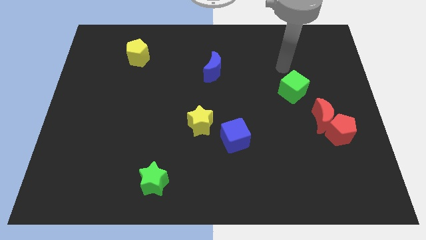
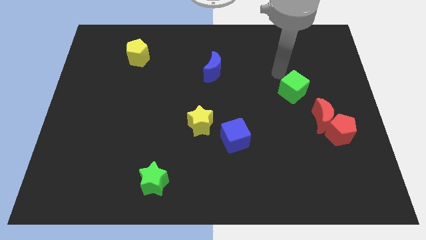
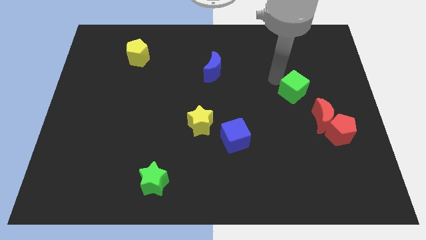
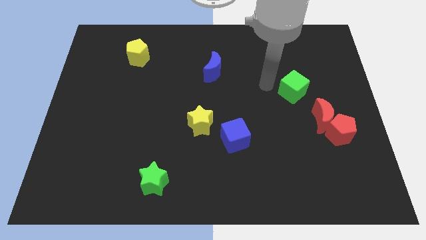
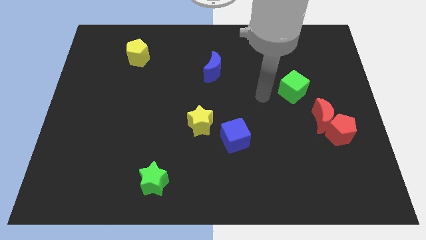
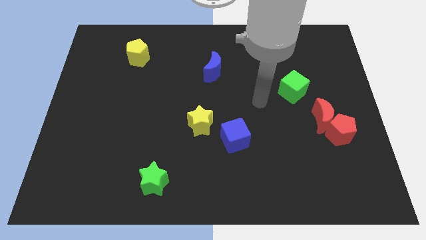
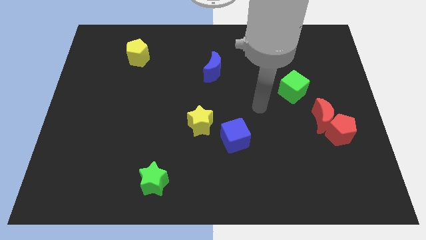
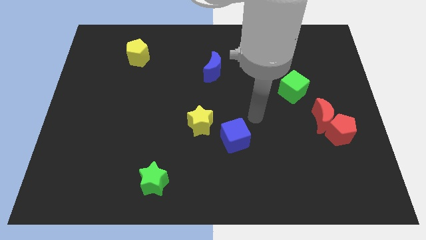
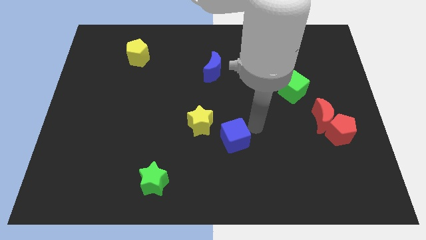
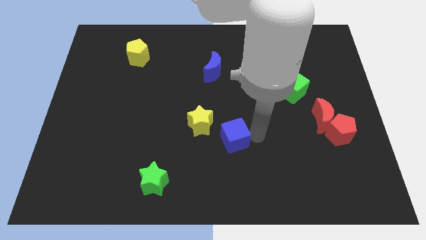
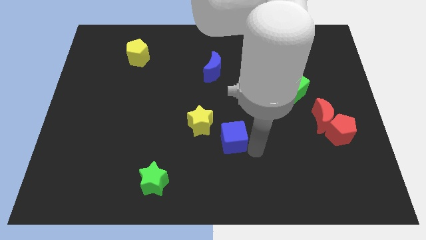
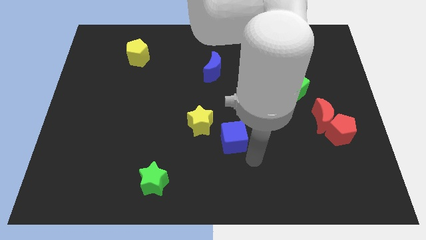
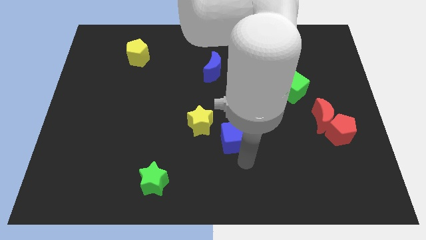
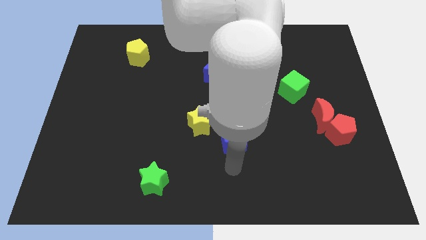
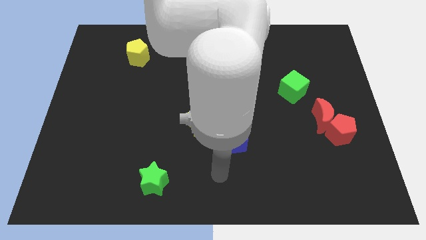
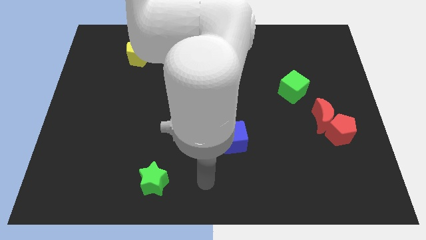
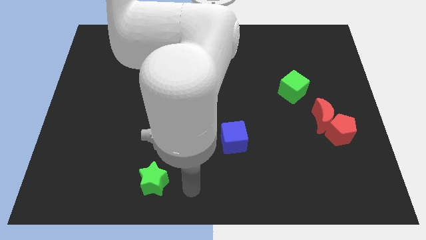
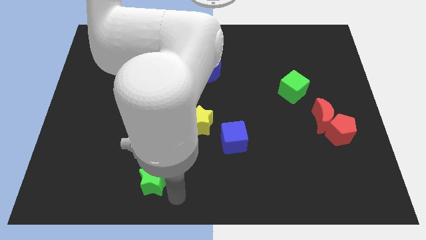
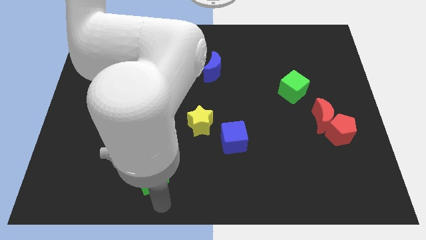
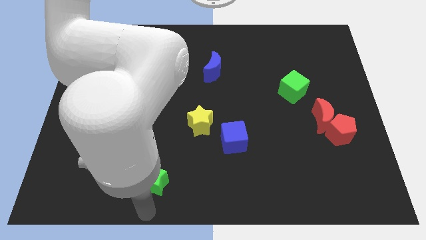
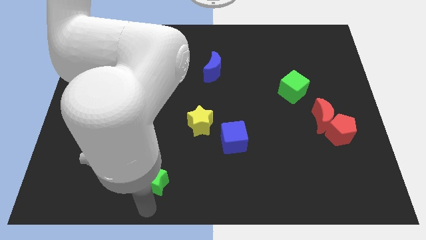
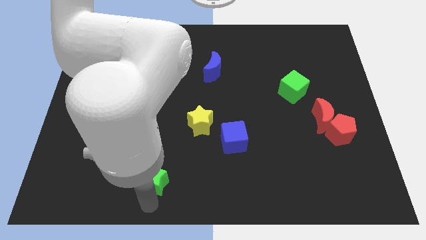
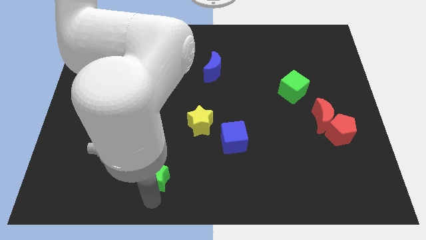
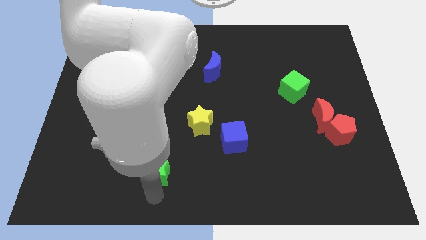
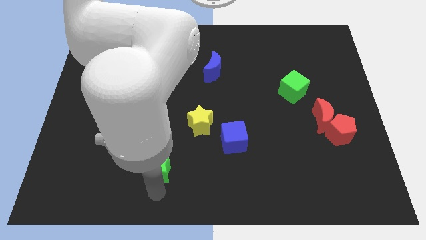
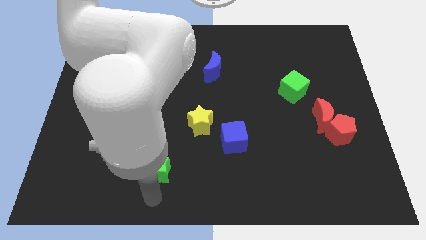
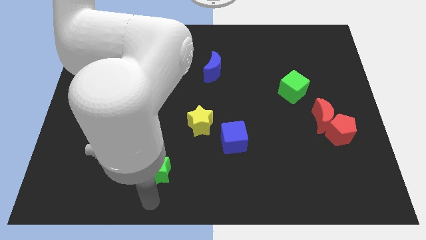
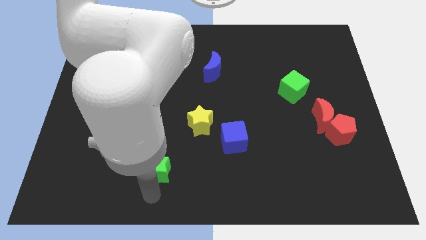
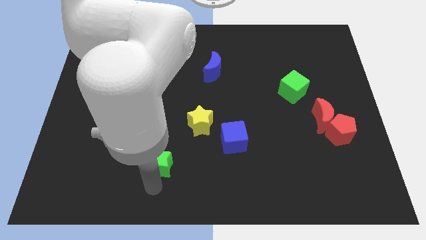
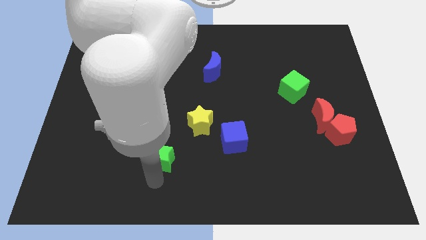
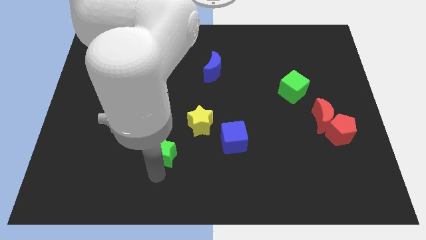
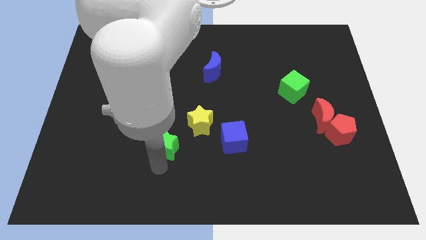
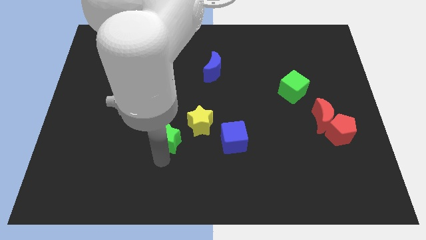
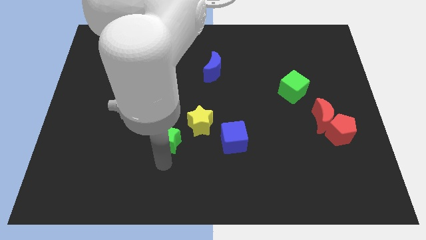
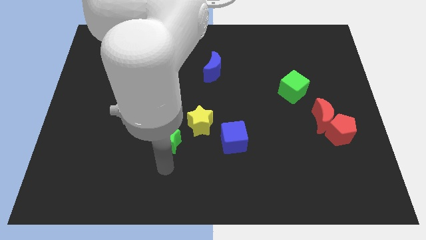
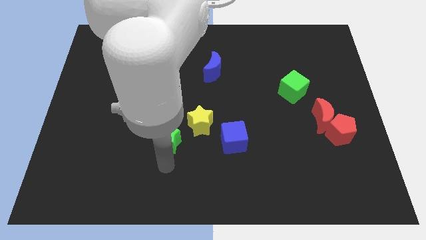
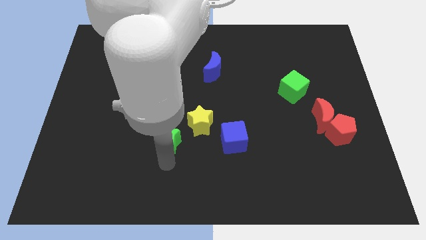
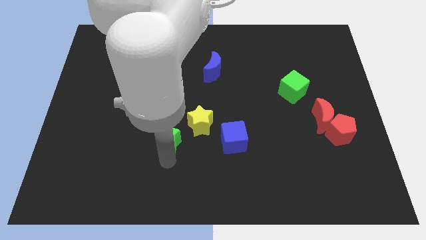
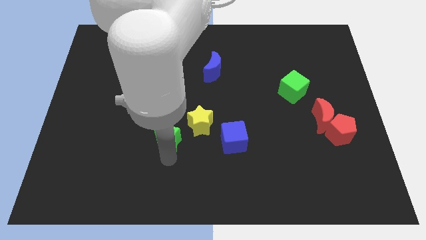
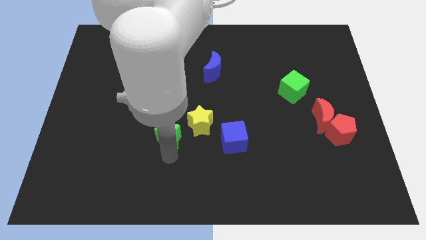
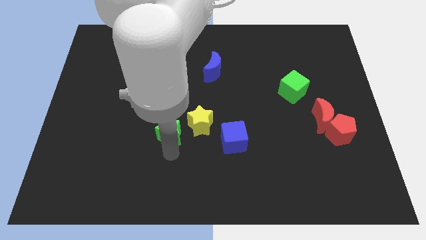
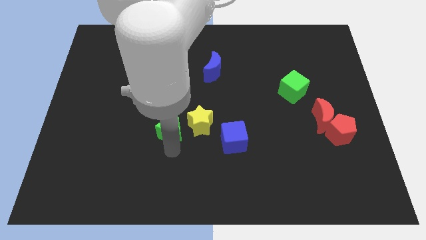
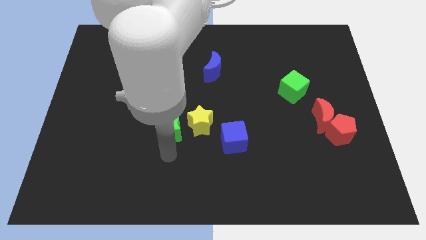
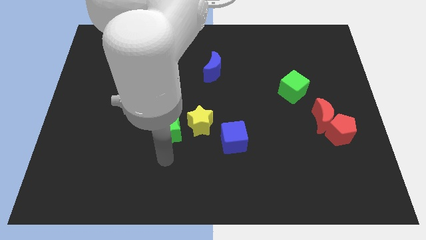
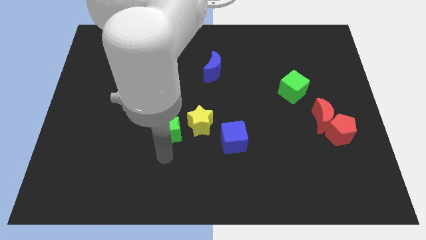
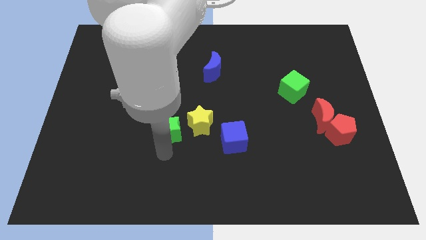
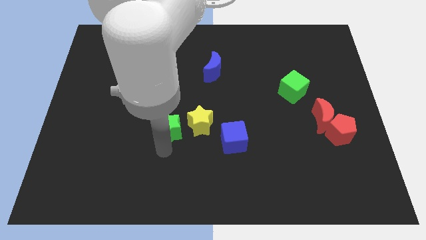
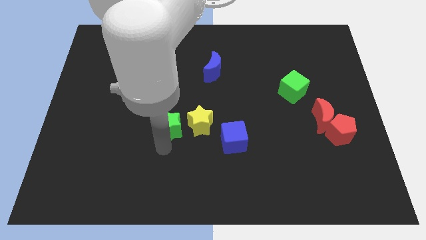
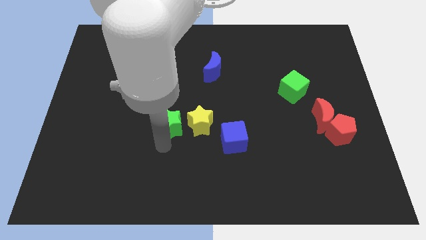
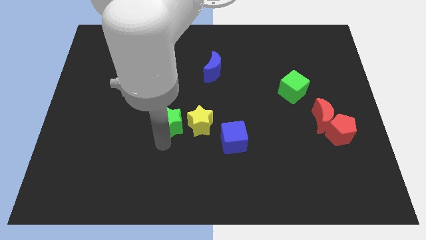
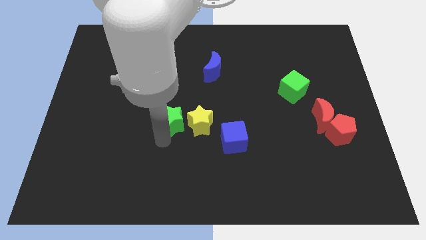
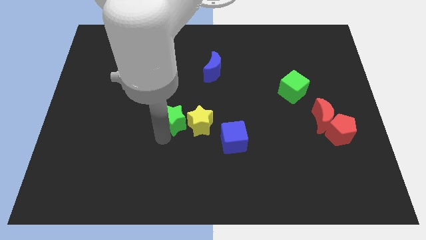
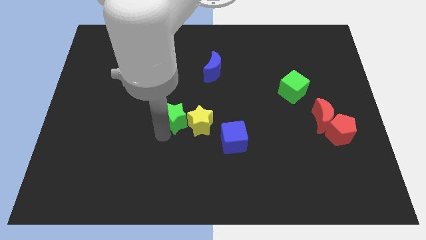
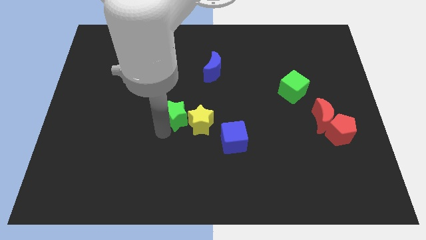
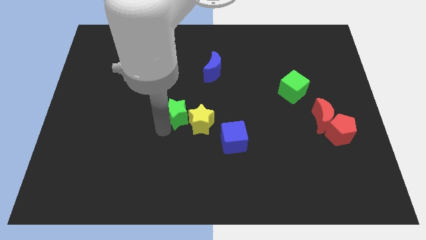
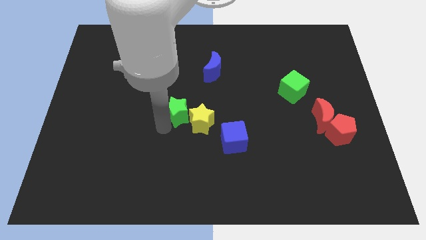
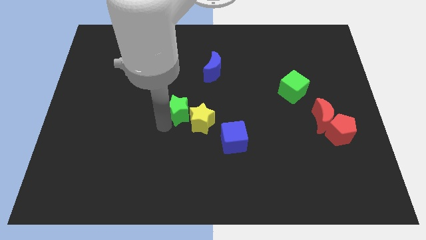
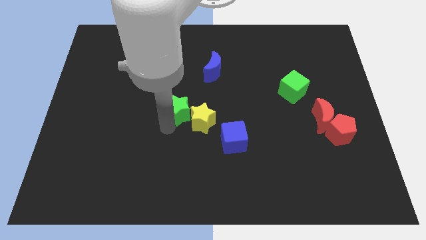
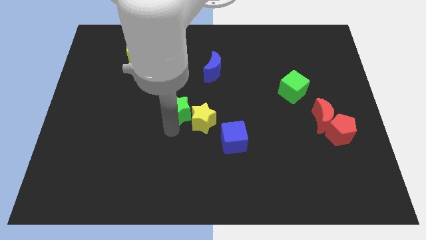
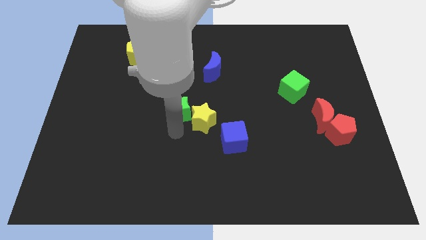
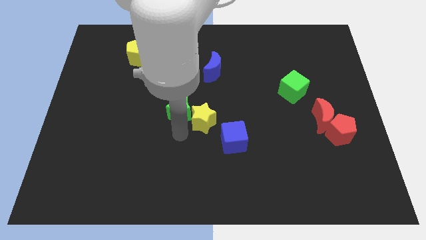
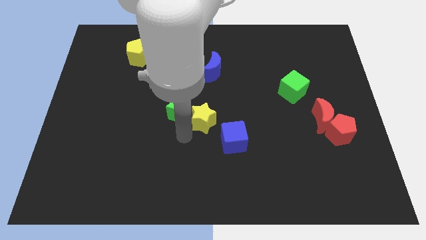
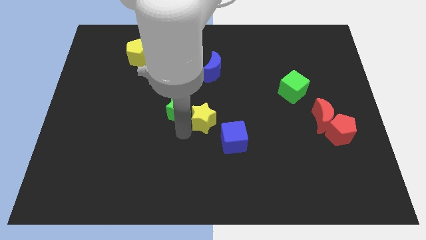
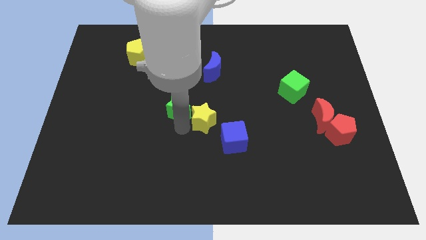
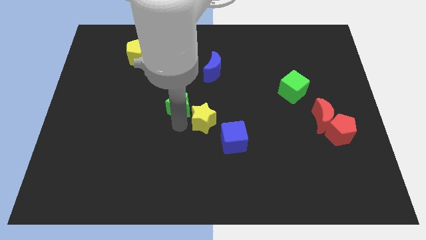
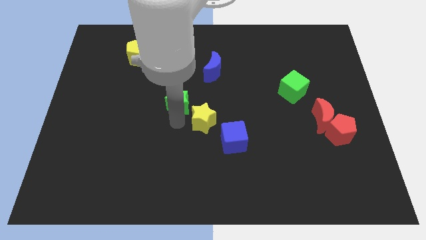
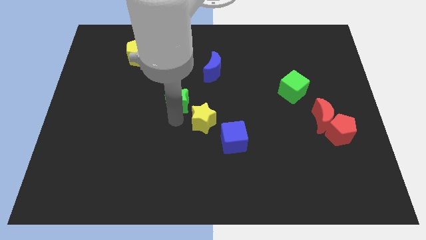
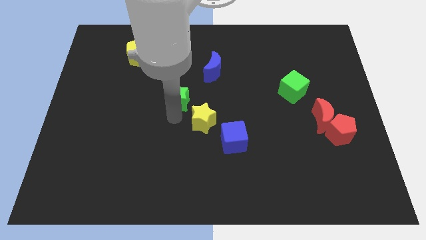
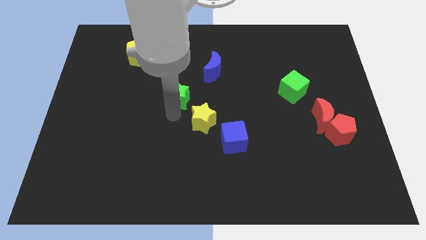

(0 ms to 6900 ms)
put the green star diagonally down and to the left of the blue moon

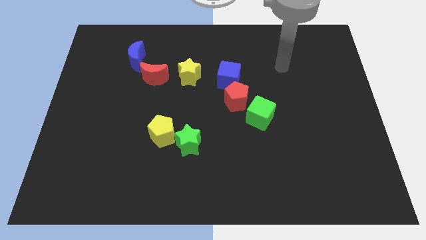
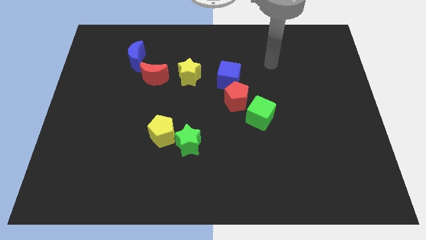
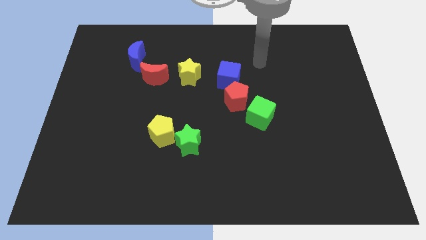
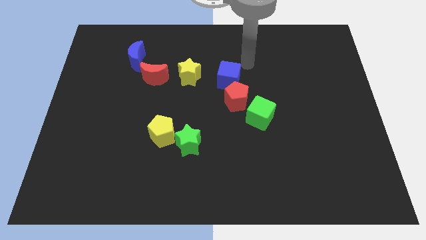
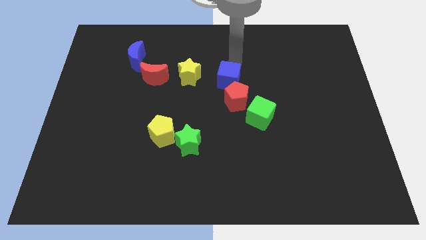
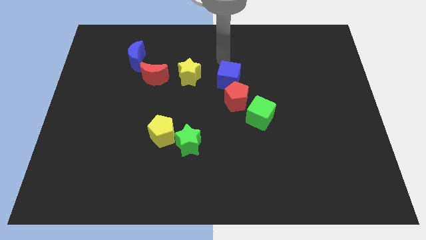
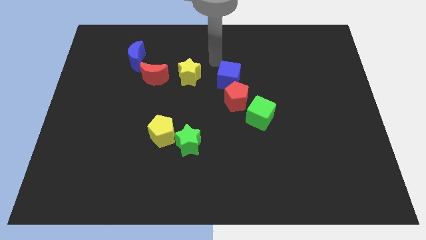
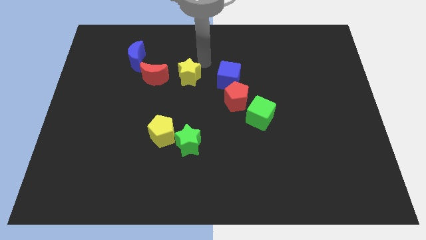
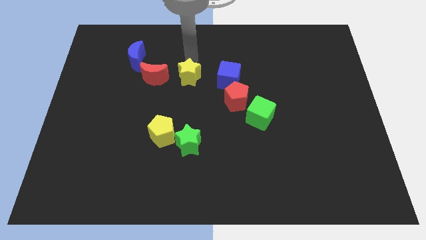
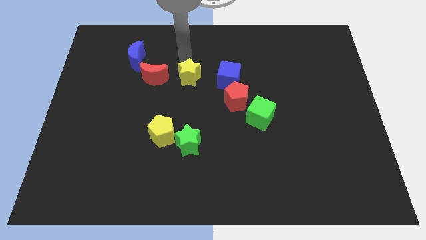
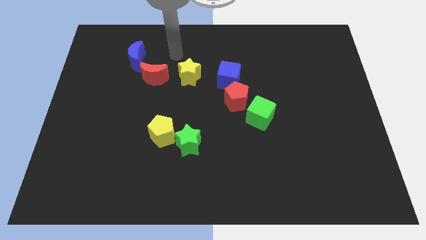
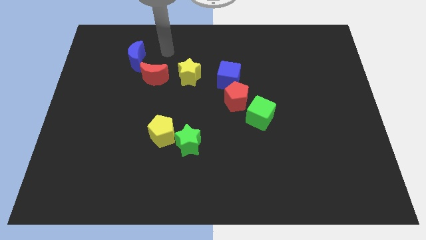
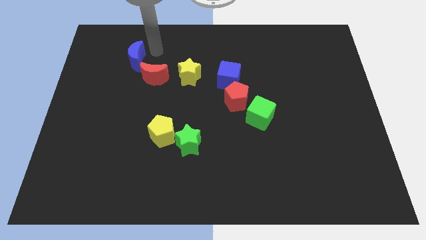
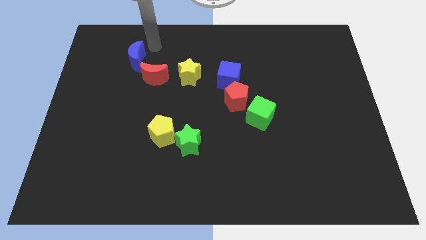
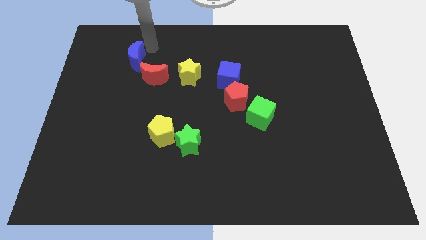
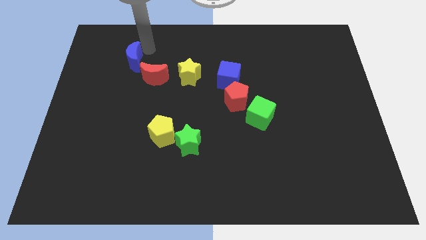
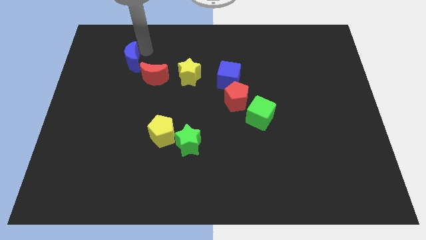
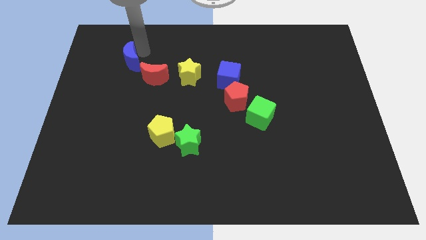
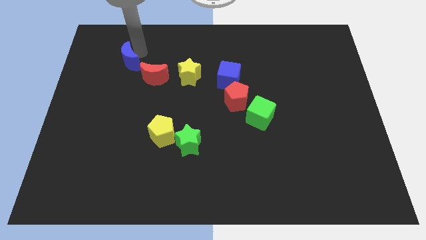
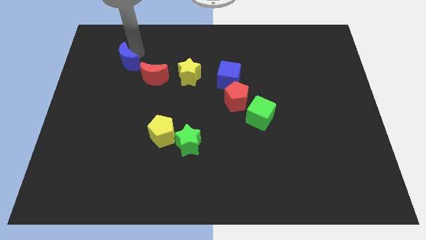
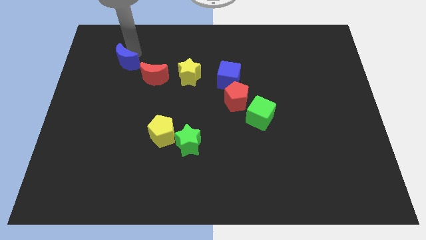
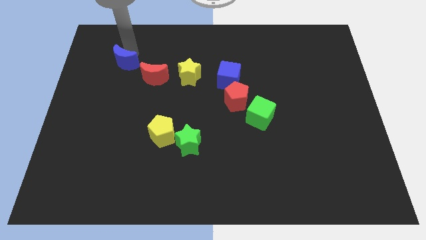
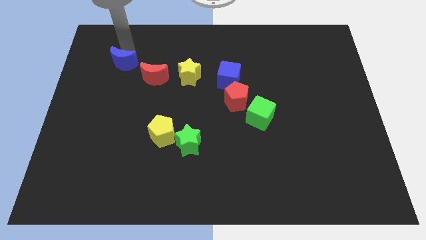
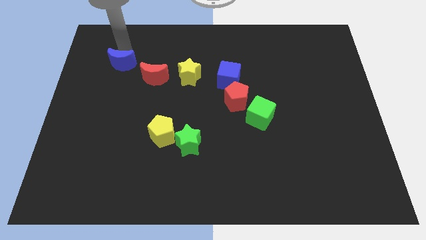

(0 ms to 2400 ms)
push the blue moon to the left of the red moon
